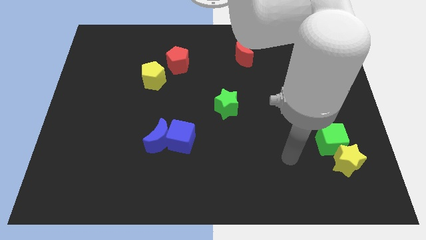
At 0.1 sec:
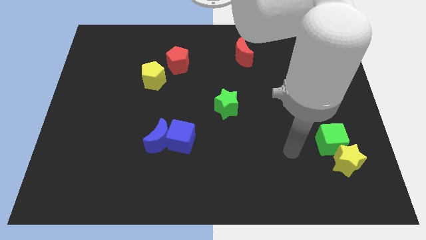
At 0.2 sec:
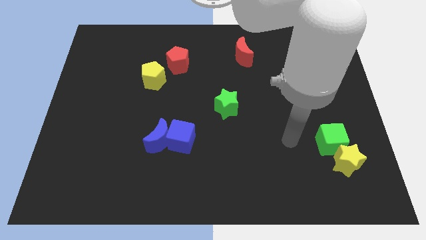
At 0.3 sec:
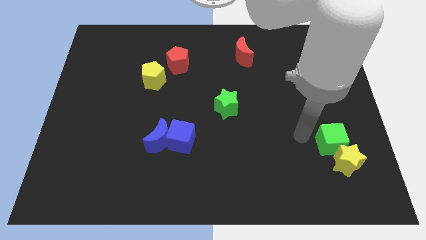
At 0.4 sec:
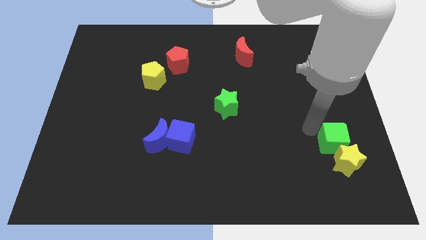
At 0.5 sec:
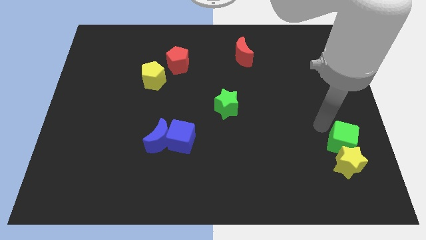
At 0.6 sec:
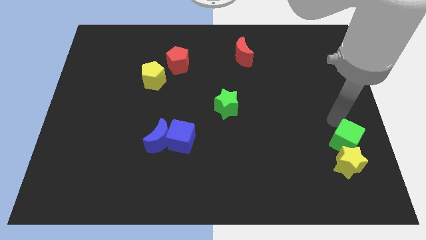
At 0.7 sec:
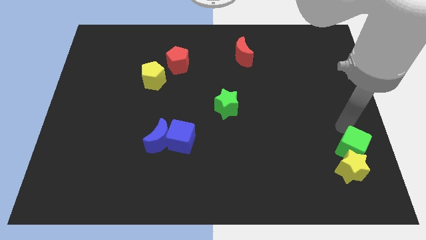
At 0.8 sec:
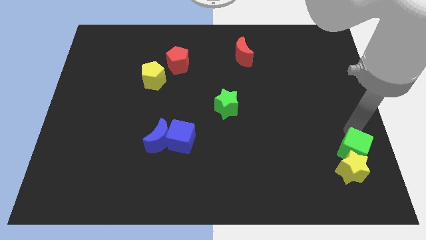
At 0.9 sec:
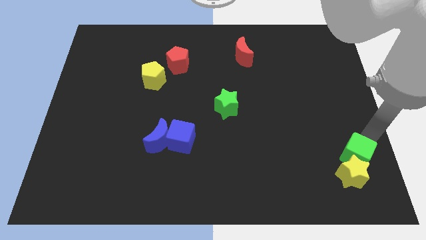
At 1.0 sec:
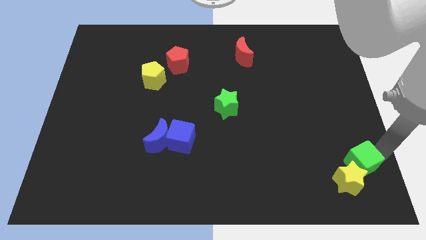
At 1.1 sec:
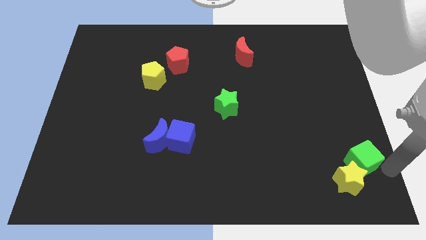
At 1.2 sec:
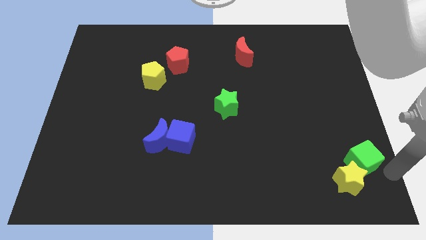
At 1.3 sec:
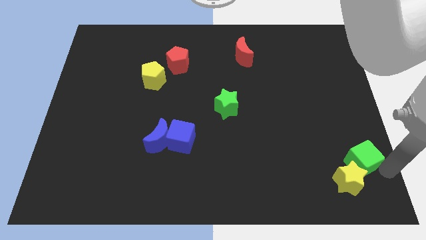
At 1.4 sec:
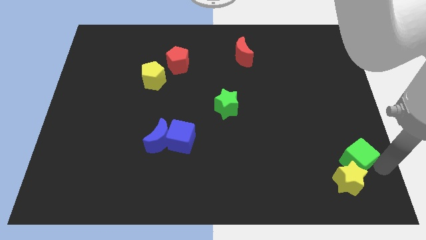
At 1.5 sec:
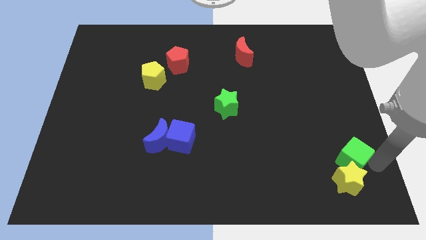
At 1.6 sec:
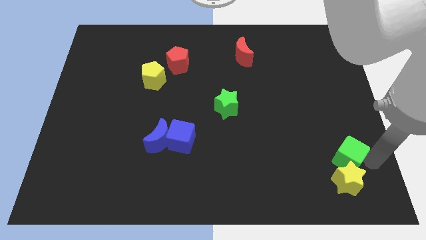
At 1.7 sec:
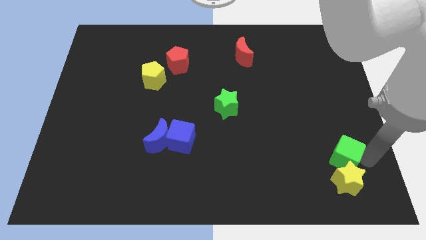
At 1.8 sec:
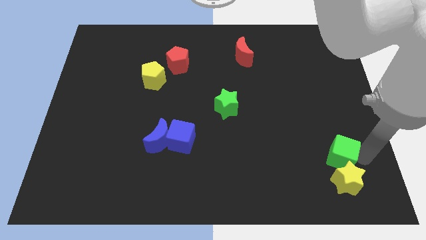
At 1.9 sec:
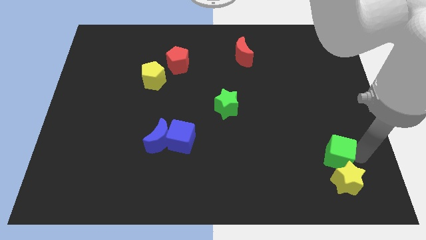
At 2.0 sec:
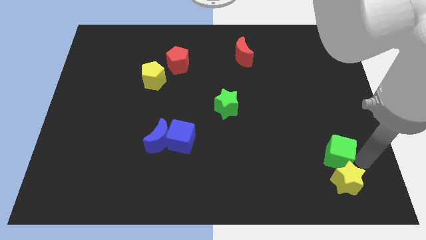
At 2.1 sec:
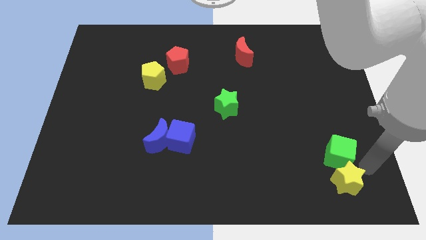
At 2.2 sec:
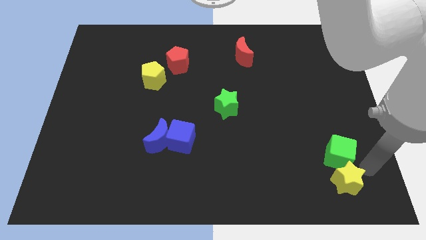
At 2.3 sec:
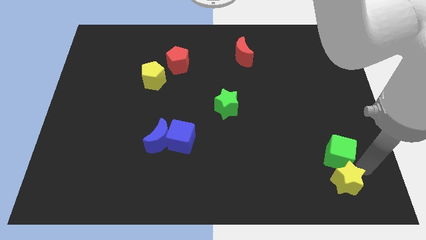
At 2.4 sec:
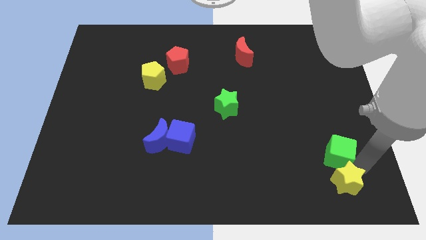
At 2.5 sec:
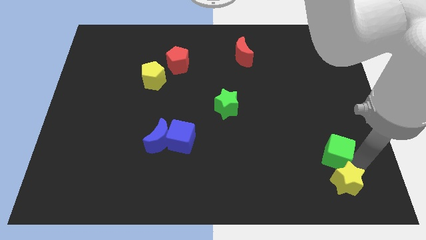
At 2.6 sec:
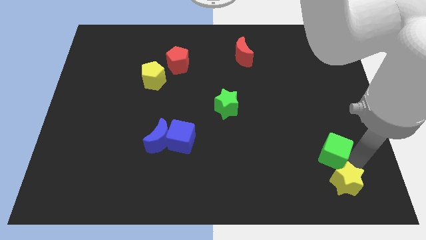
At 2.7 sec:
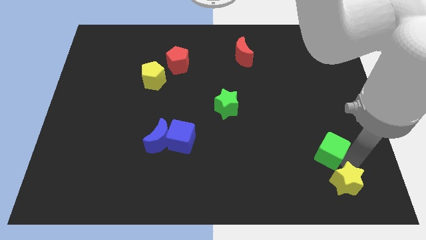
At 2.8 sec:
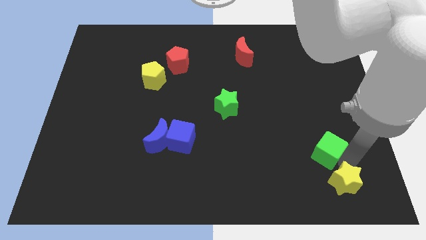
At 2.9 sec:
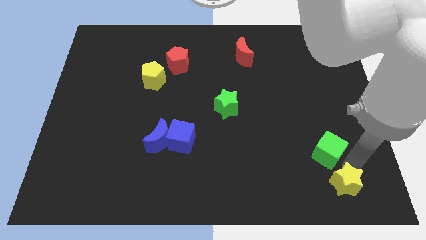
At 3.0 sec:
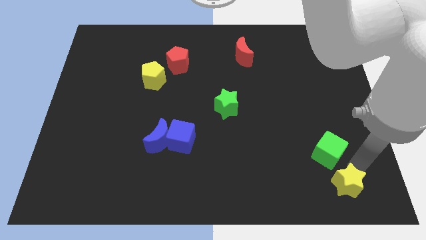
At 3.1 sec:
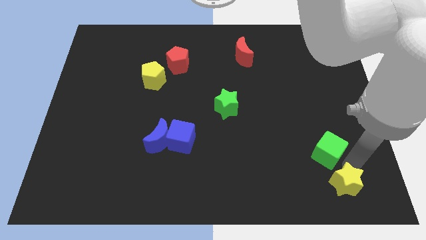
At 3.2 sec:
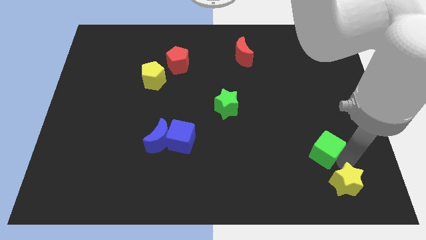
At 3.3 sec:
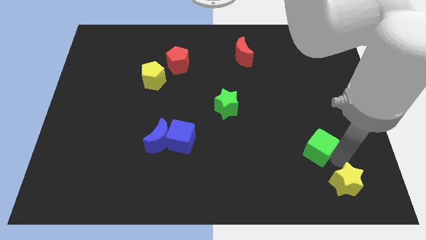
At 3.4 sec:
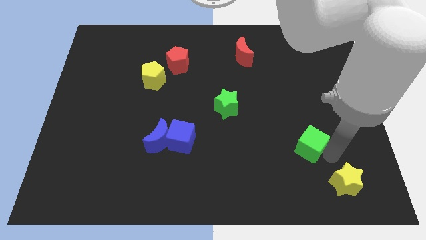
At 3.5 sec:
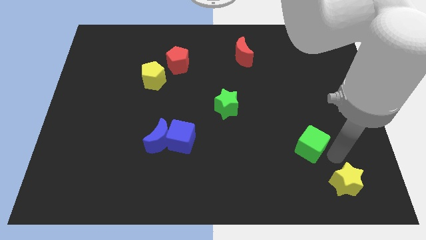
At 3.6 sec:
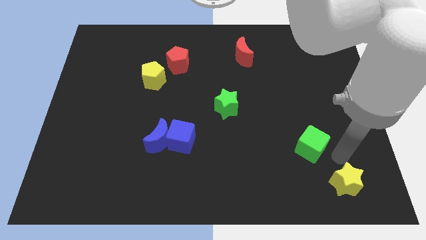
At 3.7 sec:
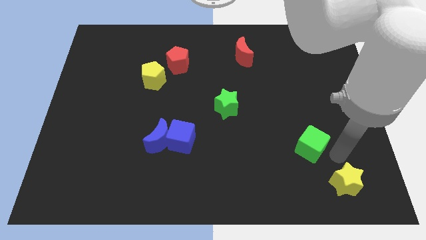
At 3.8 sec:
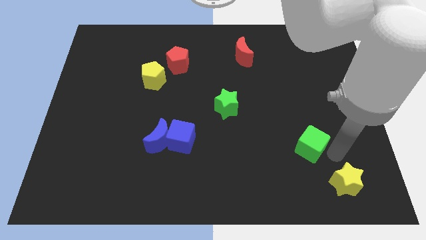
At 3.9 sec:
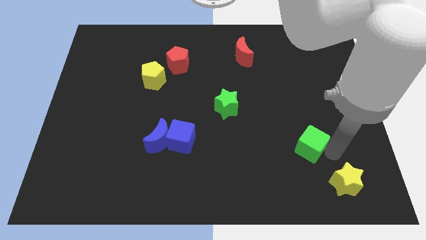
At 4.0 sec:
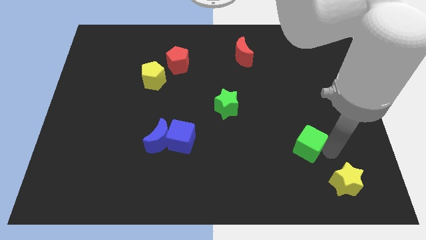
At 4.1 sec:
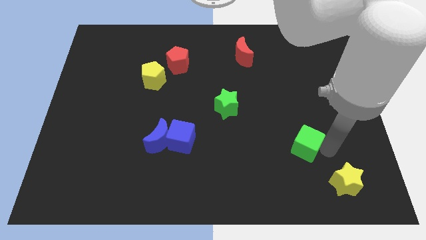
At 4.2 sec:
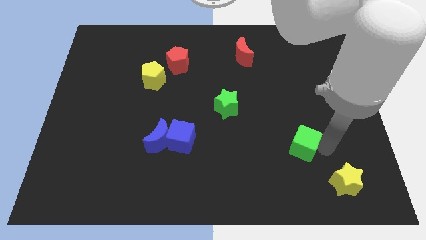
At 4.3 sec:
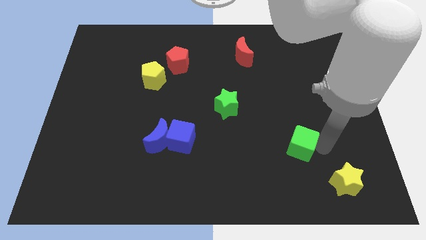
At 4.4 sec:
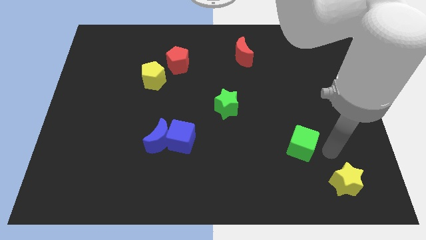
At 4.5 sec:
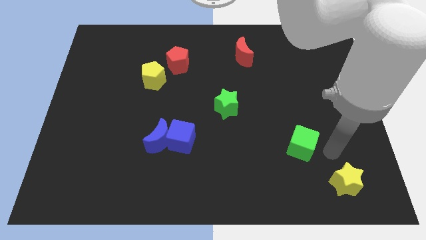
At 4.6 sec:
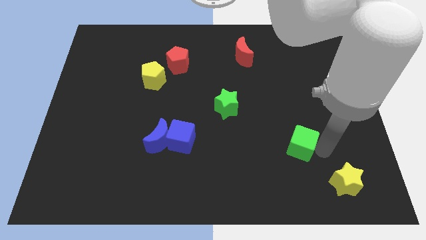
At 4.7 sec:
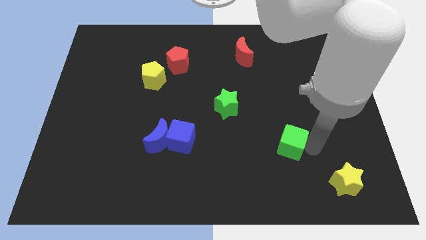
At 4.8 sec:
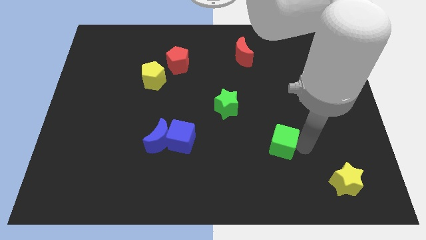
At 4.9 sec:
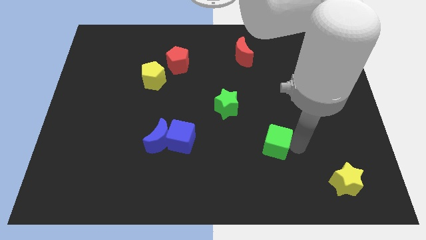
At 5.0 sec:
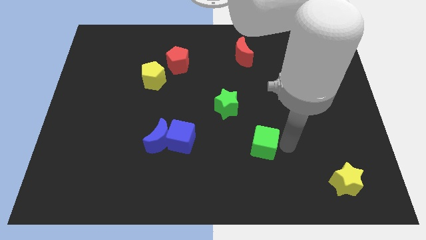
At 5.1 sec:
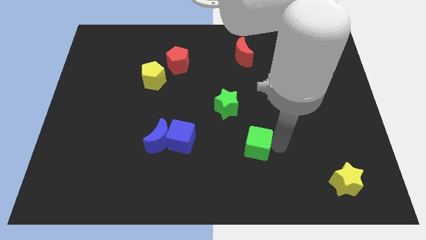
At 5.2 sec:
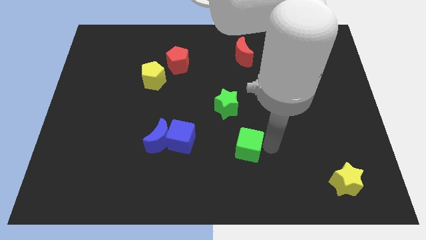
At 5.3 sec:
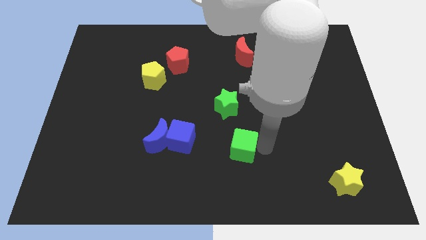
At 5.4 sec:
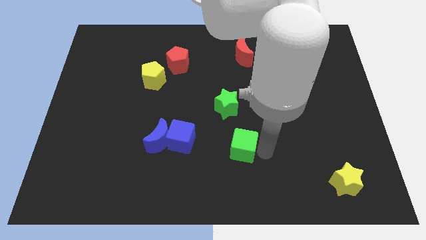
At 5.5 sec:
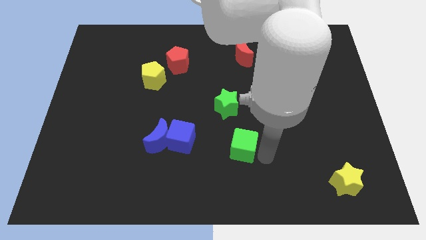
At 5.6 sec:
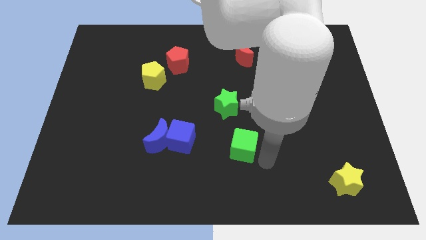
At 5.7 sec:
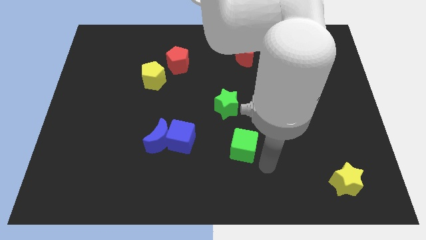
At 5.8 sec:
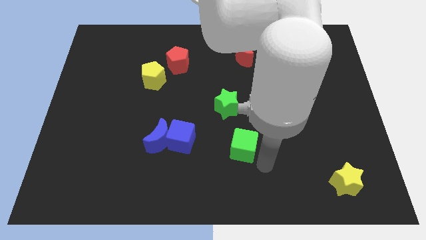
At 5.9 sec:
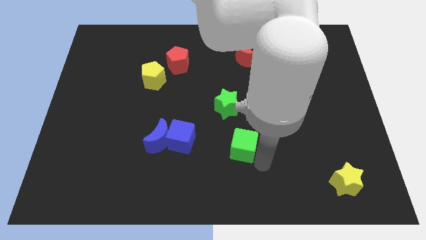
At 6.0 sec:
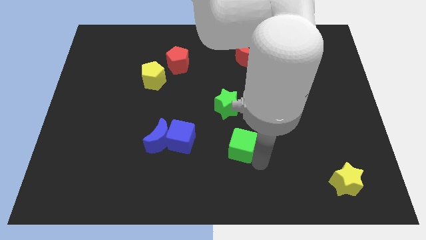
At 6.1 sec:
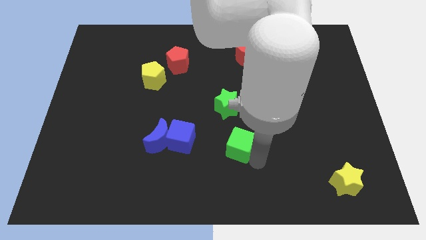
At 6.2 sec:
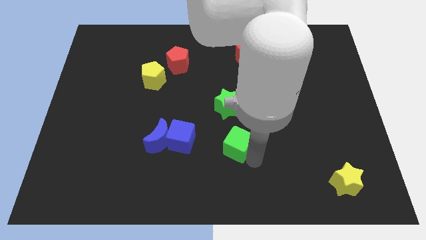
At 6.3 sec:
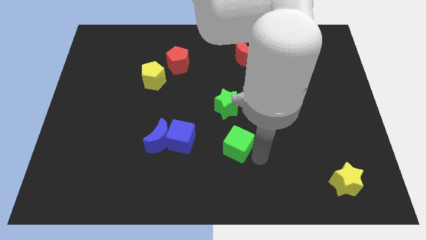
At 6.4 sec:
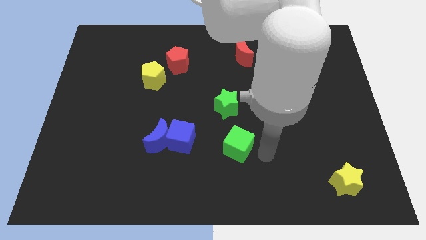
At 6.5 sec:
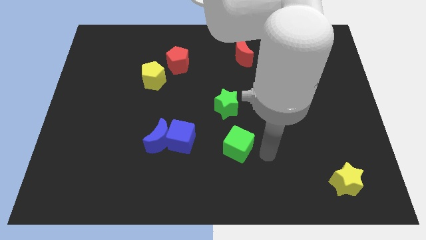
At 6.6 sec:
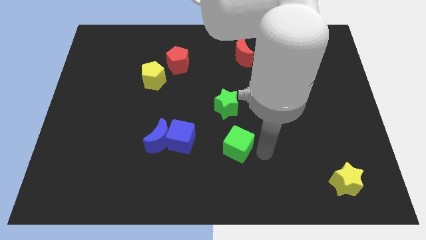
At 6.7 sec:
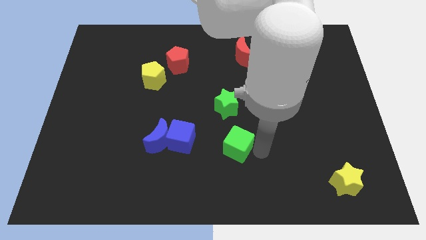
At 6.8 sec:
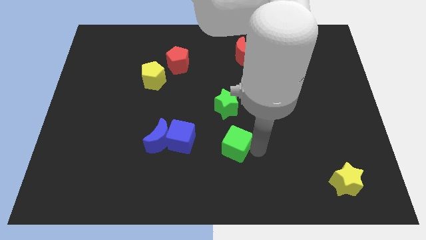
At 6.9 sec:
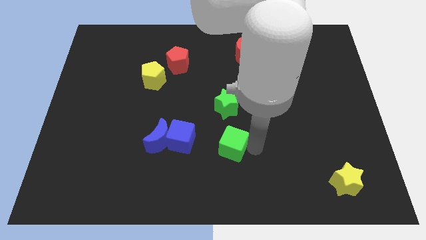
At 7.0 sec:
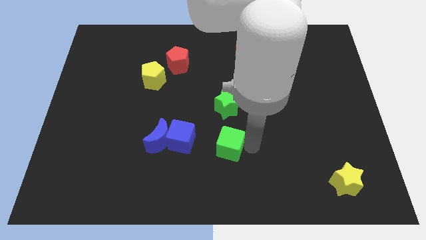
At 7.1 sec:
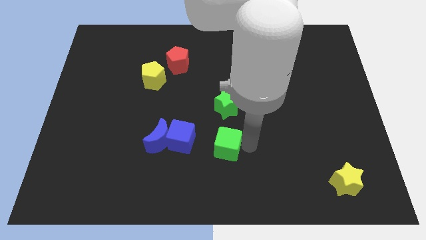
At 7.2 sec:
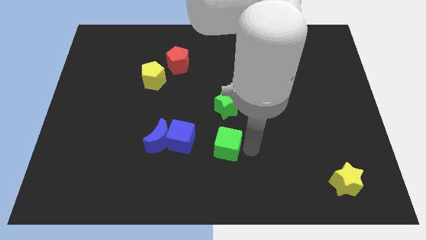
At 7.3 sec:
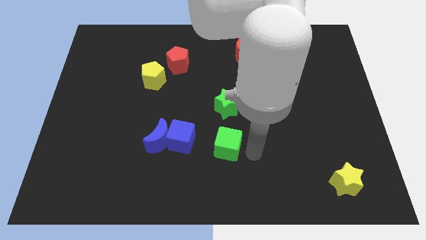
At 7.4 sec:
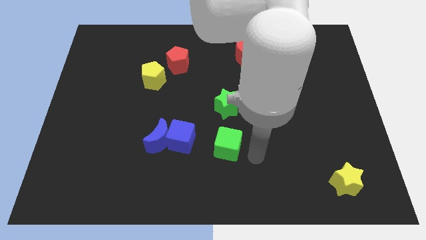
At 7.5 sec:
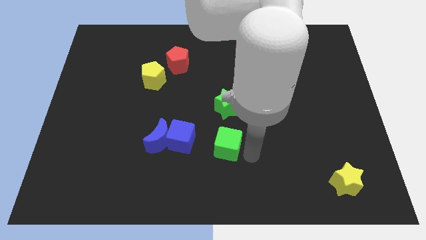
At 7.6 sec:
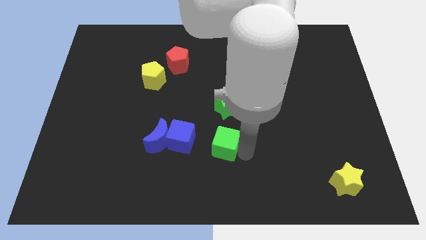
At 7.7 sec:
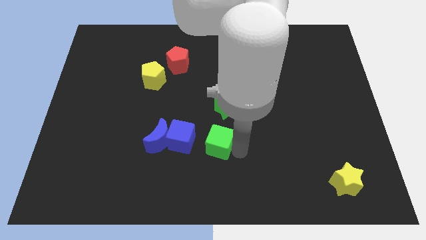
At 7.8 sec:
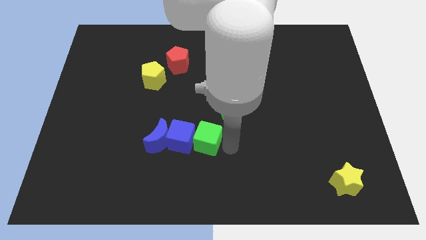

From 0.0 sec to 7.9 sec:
move the green cube to the blue cube
